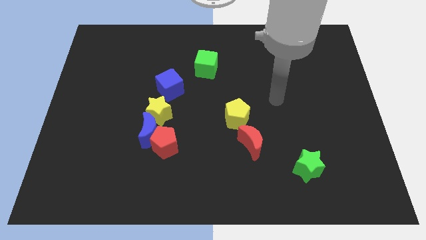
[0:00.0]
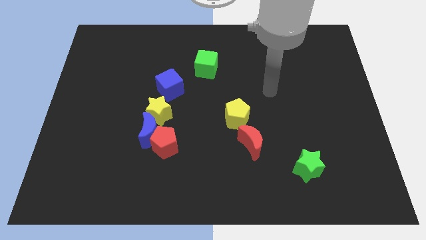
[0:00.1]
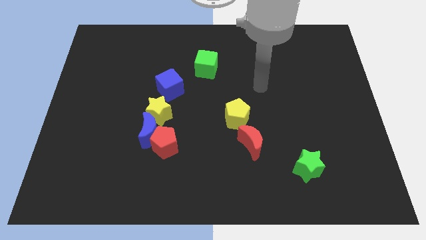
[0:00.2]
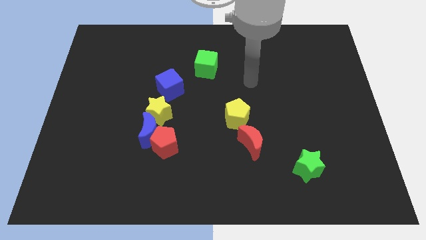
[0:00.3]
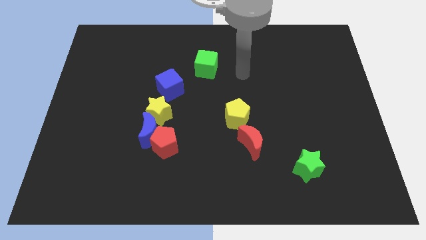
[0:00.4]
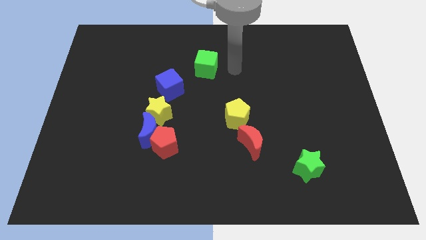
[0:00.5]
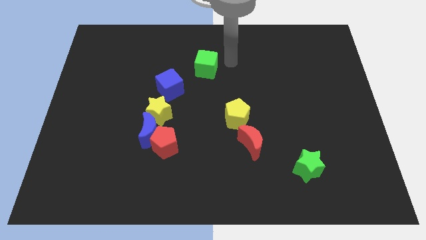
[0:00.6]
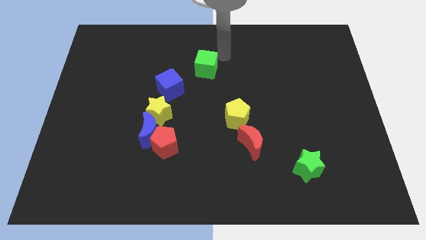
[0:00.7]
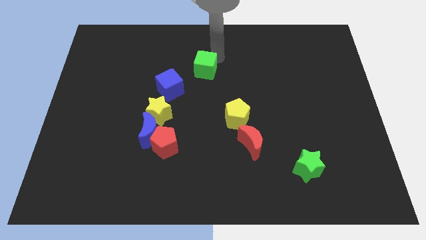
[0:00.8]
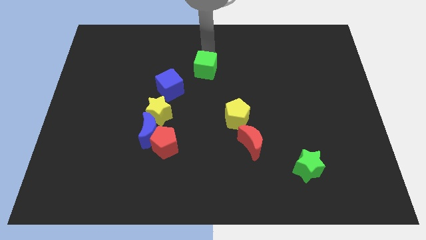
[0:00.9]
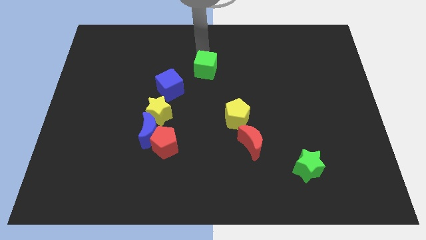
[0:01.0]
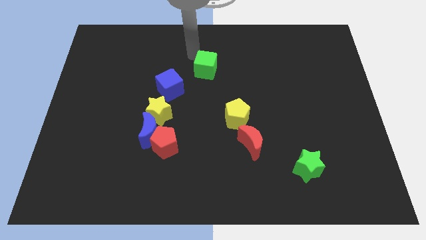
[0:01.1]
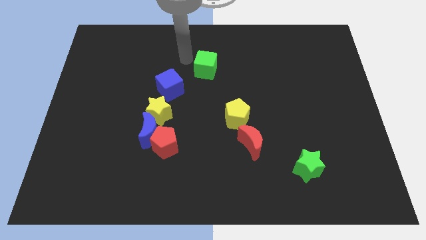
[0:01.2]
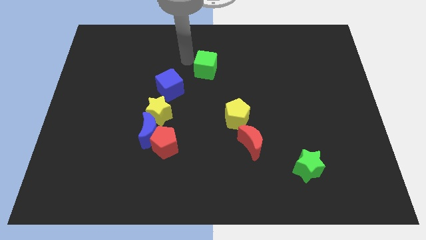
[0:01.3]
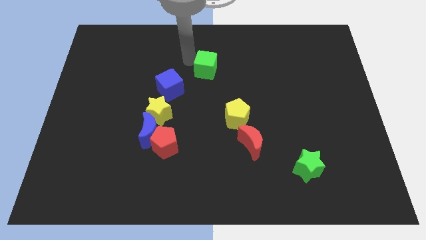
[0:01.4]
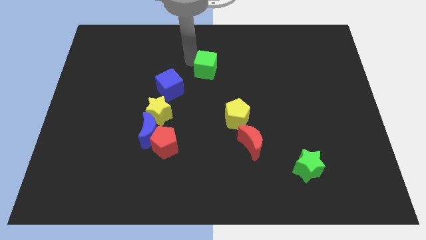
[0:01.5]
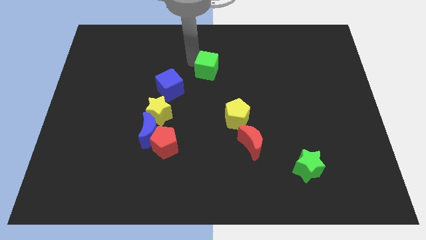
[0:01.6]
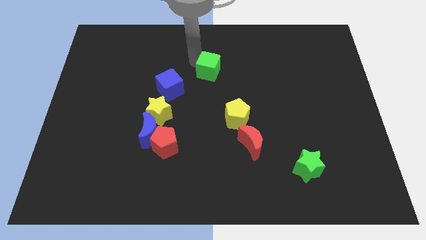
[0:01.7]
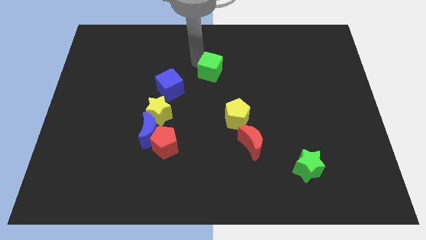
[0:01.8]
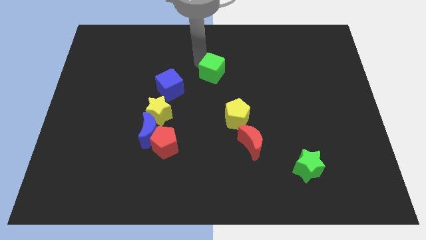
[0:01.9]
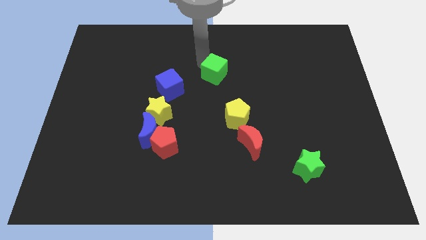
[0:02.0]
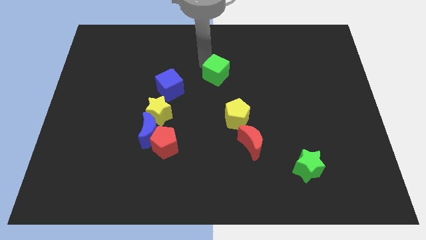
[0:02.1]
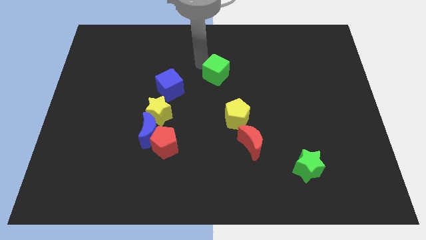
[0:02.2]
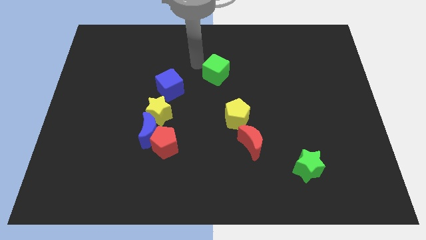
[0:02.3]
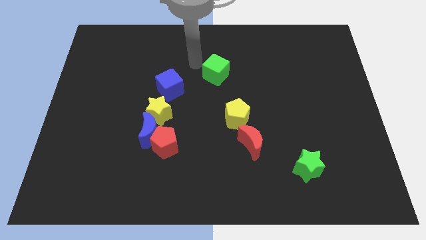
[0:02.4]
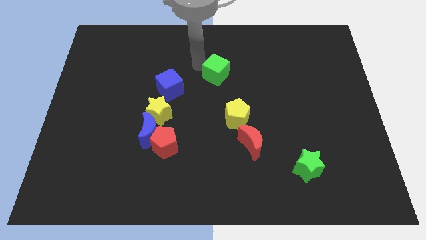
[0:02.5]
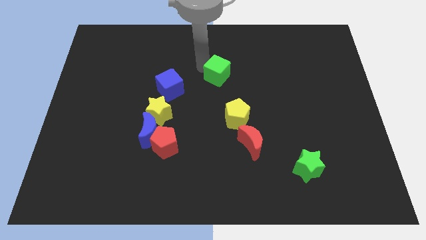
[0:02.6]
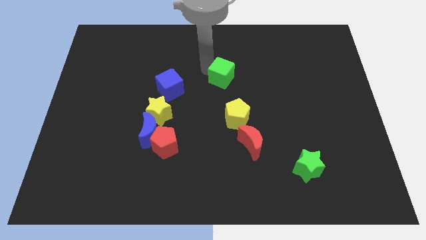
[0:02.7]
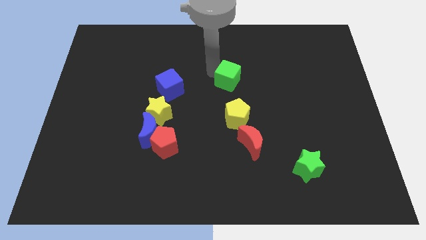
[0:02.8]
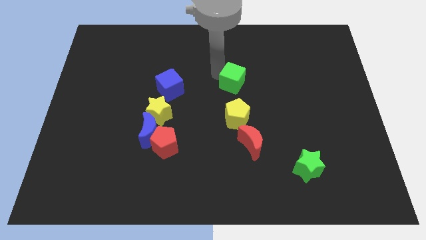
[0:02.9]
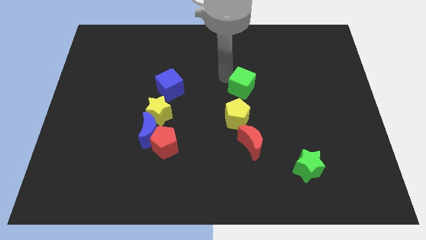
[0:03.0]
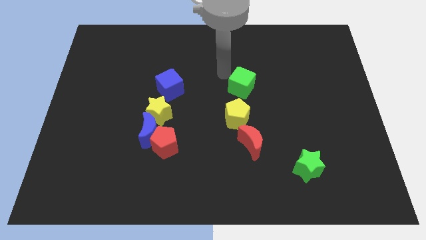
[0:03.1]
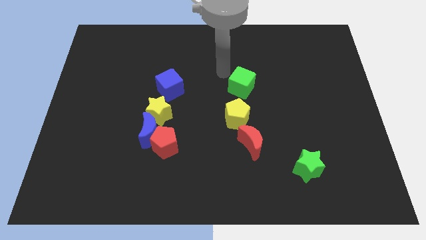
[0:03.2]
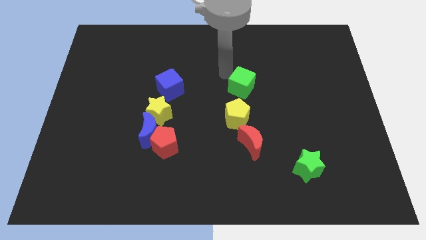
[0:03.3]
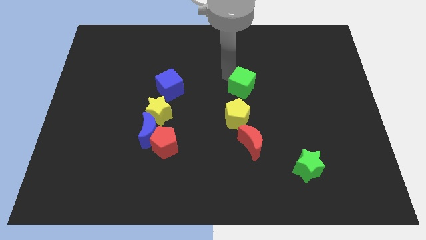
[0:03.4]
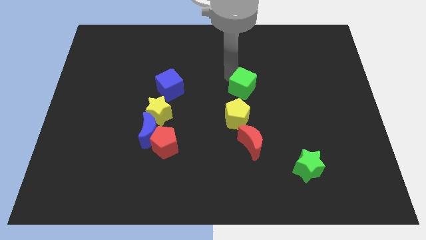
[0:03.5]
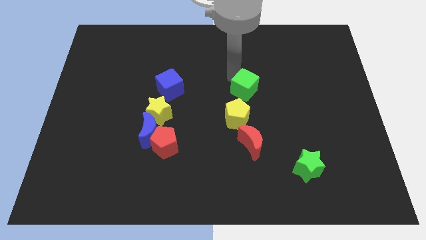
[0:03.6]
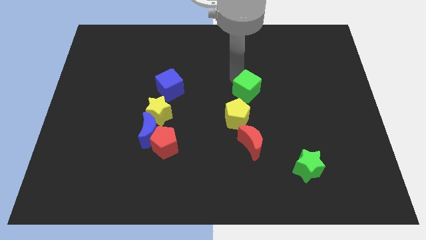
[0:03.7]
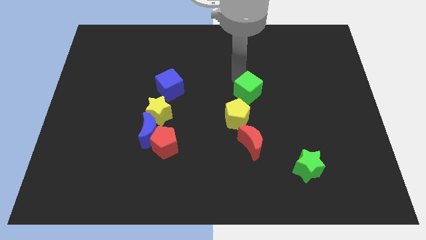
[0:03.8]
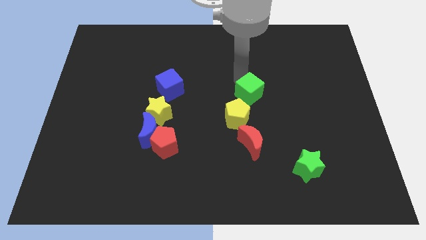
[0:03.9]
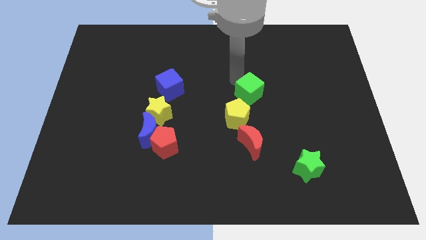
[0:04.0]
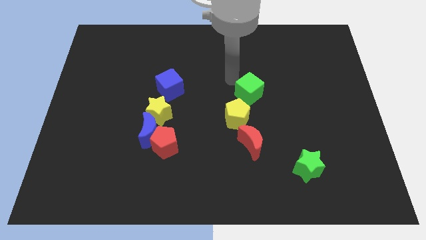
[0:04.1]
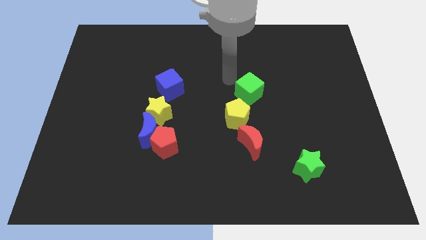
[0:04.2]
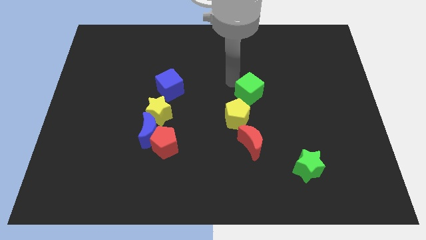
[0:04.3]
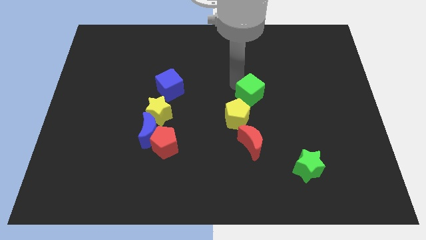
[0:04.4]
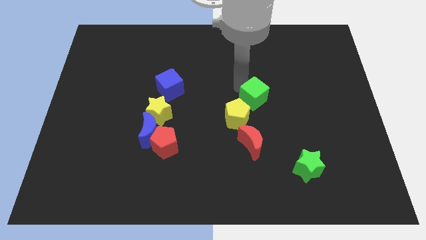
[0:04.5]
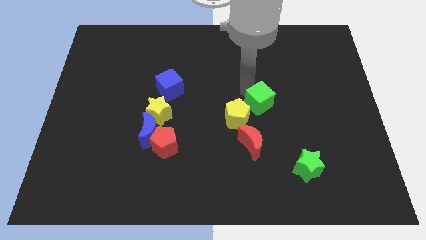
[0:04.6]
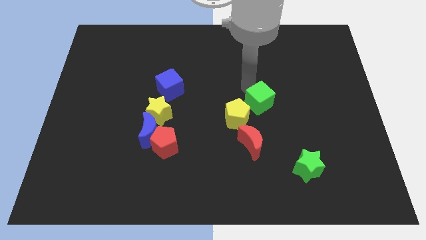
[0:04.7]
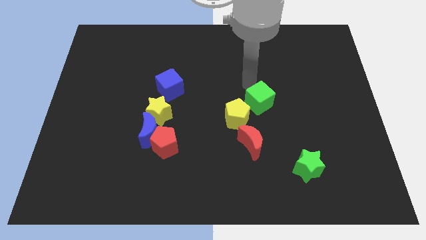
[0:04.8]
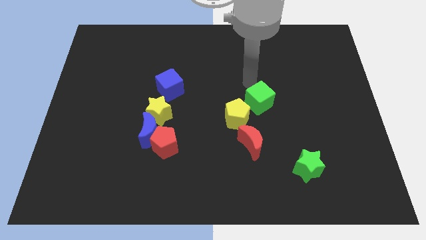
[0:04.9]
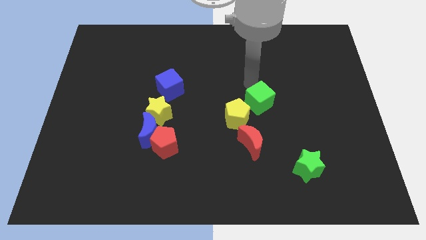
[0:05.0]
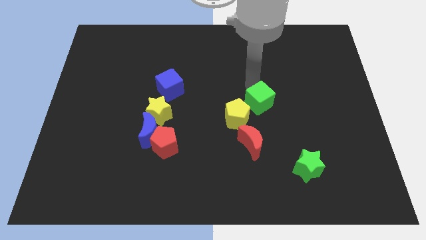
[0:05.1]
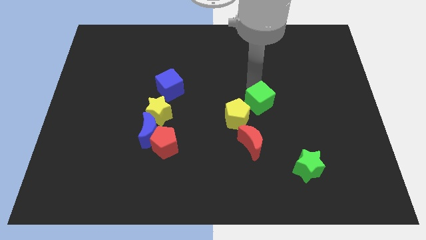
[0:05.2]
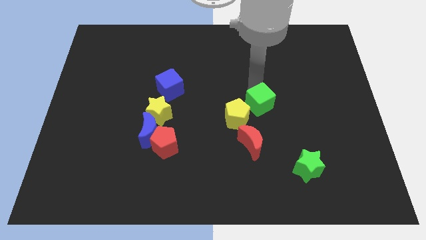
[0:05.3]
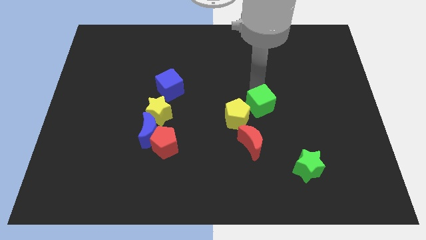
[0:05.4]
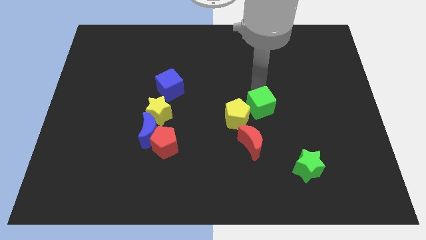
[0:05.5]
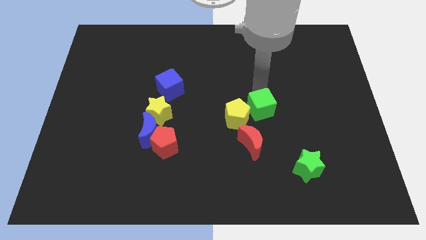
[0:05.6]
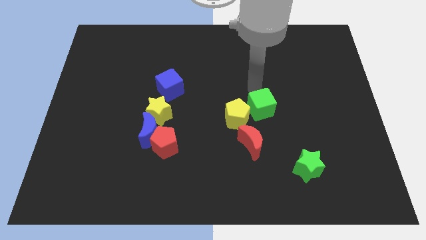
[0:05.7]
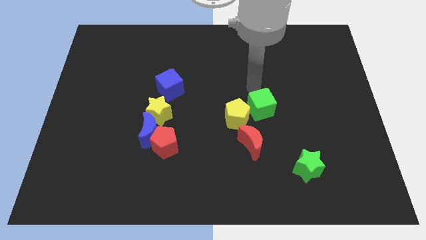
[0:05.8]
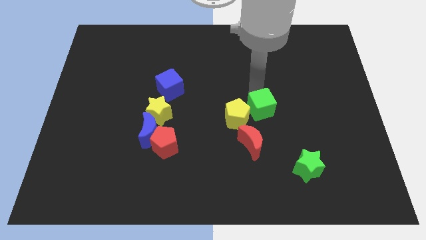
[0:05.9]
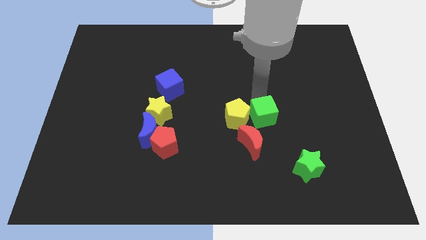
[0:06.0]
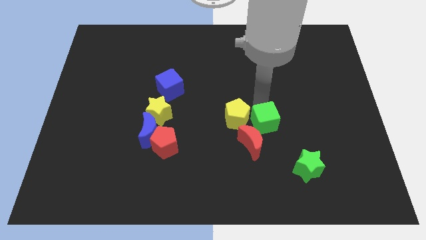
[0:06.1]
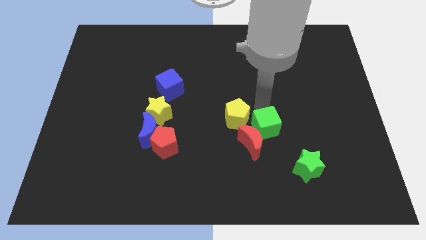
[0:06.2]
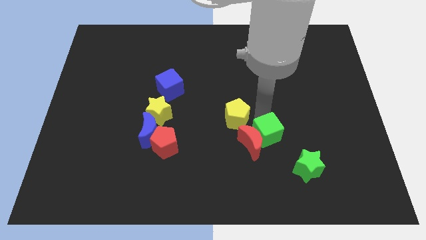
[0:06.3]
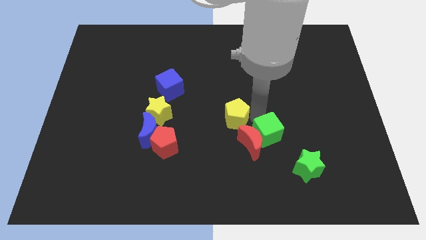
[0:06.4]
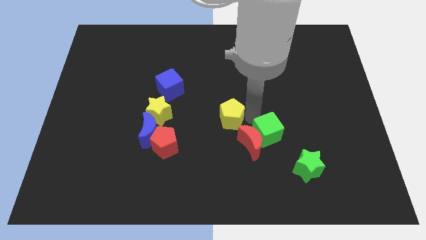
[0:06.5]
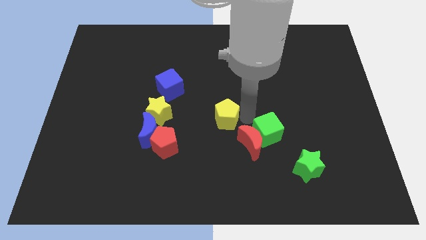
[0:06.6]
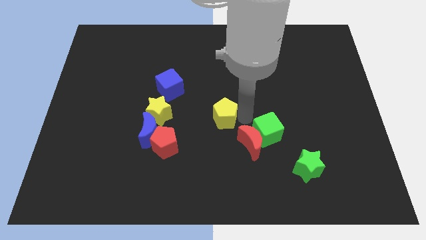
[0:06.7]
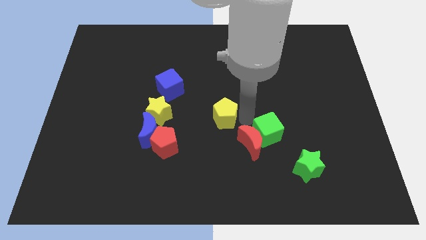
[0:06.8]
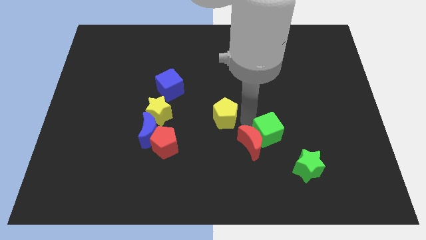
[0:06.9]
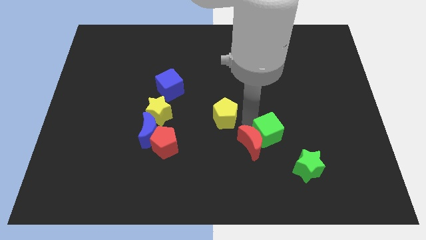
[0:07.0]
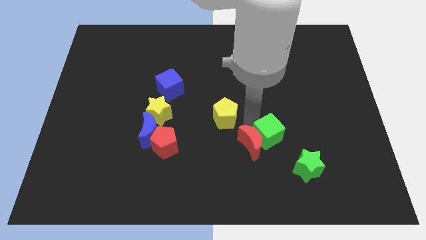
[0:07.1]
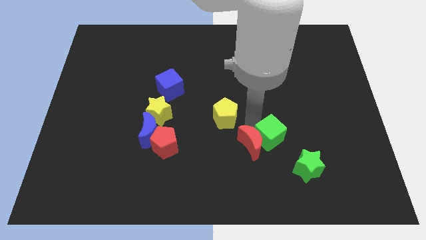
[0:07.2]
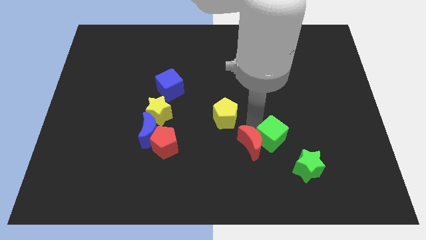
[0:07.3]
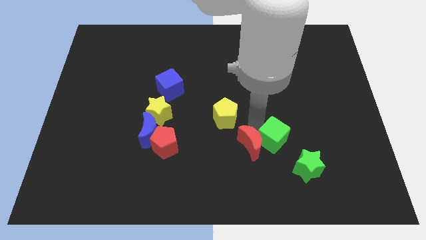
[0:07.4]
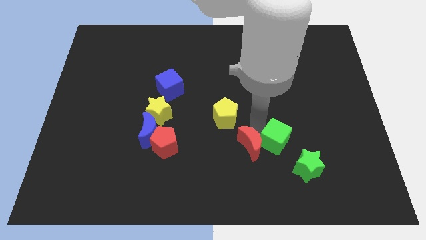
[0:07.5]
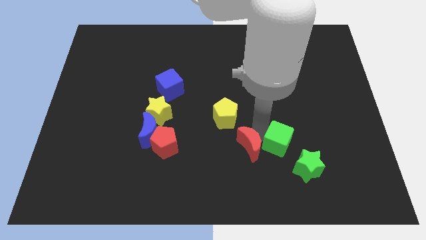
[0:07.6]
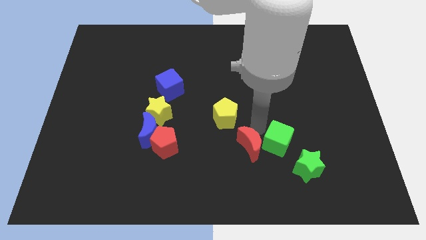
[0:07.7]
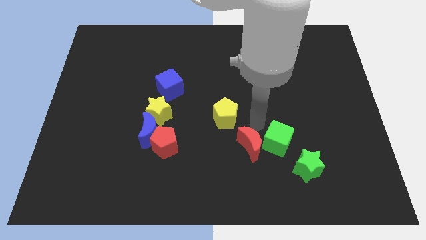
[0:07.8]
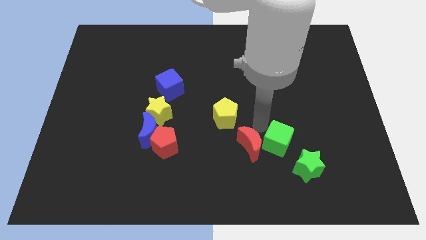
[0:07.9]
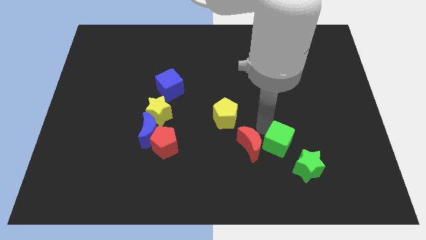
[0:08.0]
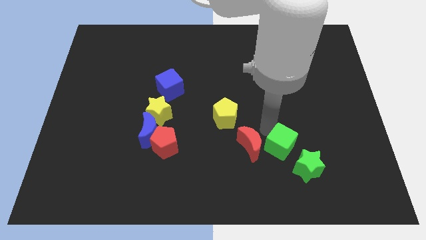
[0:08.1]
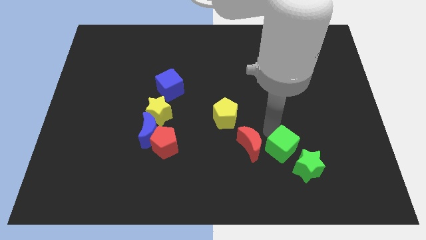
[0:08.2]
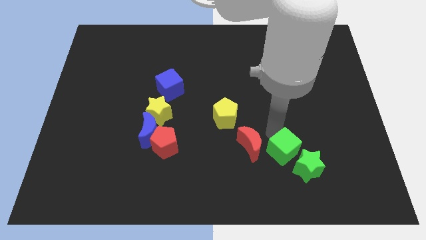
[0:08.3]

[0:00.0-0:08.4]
move the green cube next to the green star
